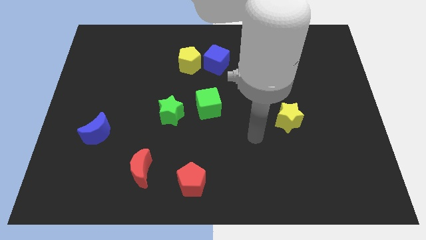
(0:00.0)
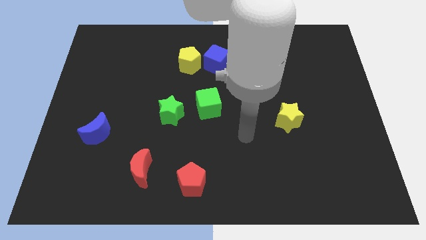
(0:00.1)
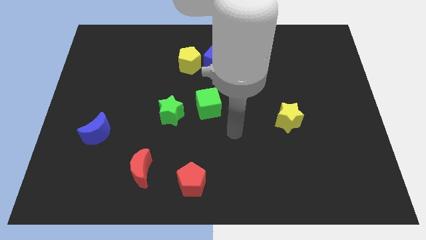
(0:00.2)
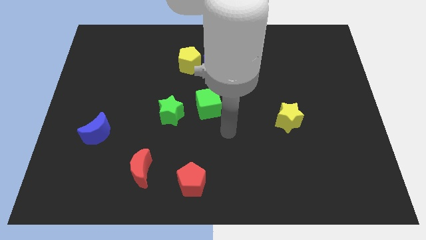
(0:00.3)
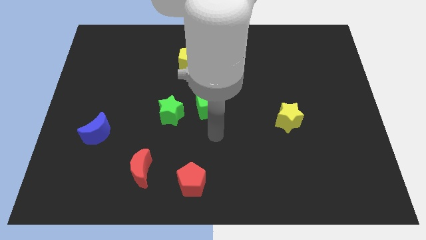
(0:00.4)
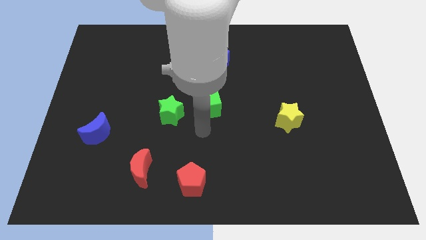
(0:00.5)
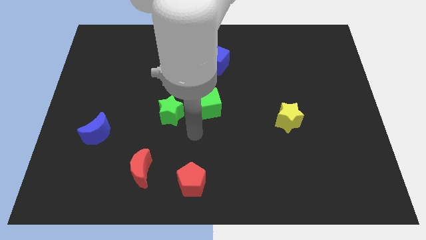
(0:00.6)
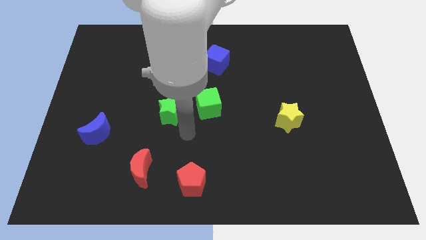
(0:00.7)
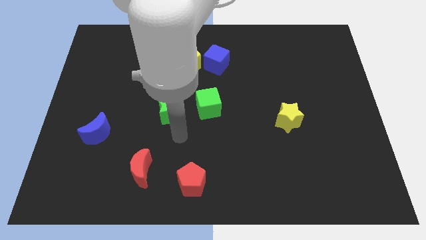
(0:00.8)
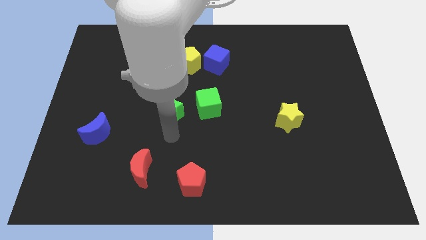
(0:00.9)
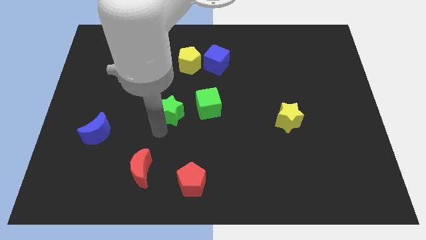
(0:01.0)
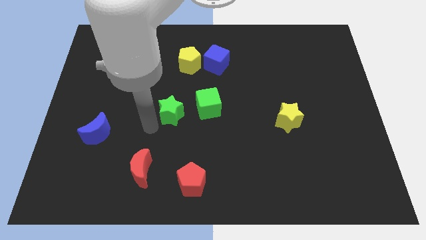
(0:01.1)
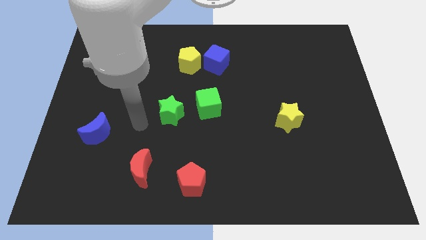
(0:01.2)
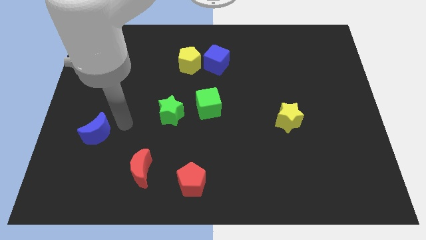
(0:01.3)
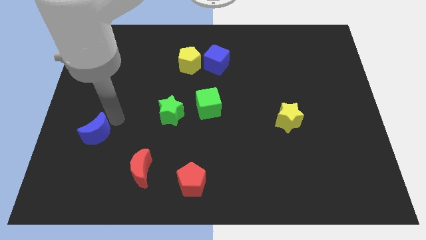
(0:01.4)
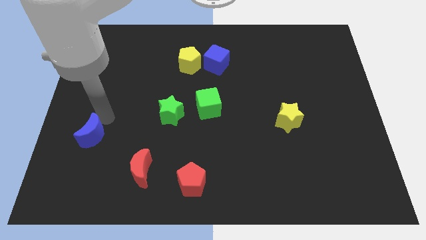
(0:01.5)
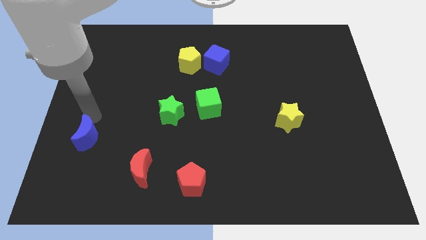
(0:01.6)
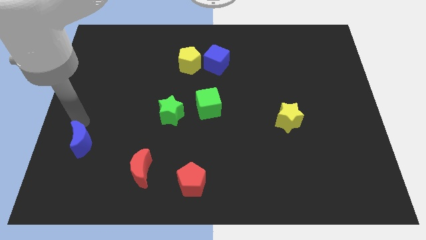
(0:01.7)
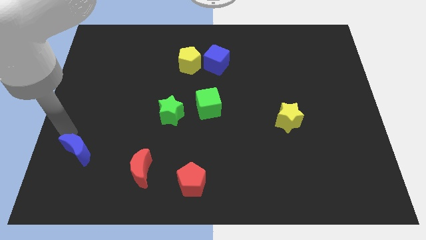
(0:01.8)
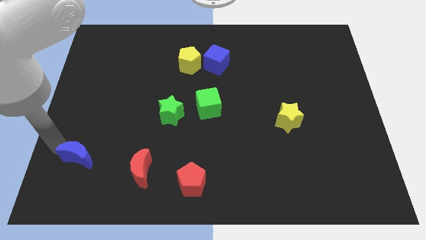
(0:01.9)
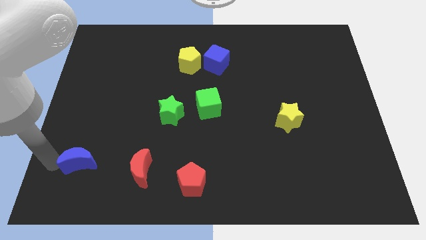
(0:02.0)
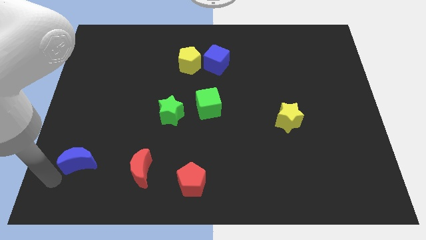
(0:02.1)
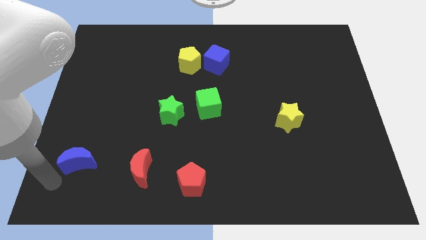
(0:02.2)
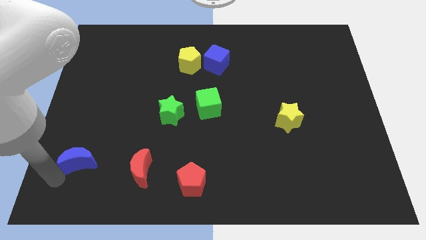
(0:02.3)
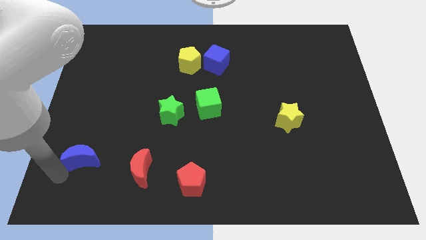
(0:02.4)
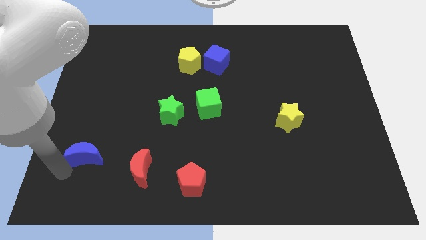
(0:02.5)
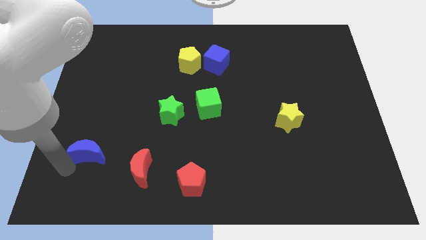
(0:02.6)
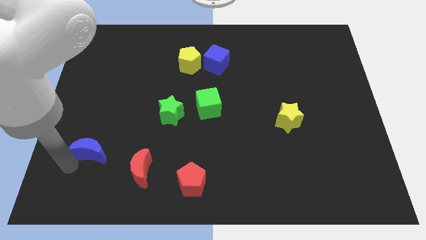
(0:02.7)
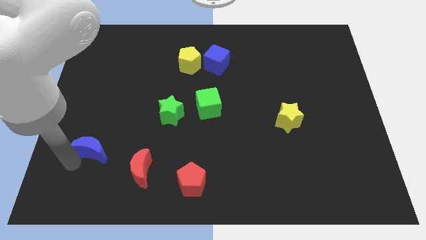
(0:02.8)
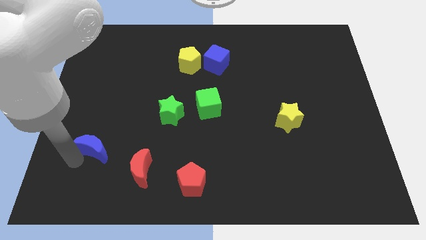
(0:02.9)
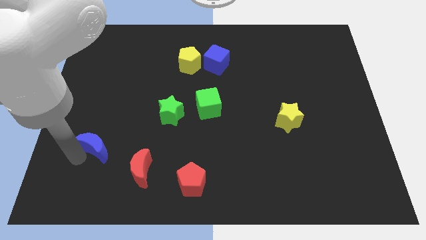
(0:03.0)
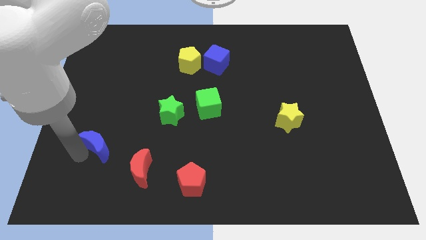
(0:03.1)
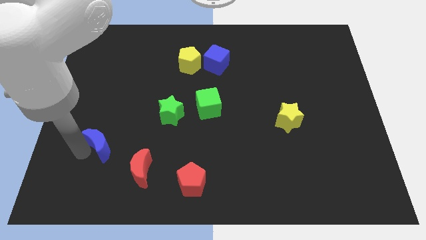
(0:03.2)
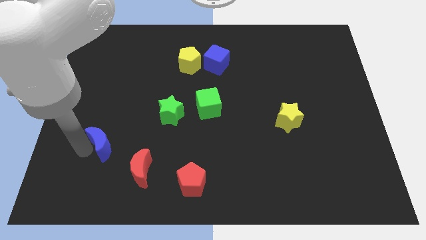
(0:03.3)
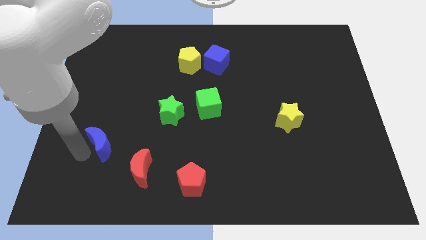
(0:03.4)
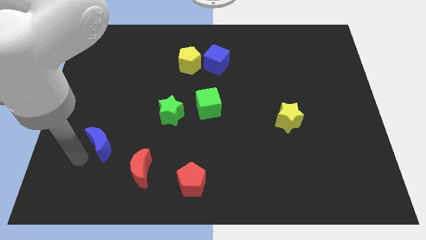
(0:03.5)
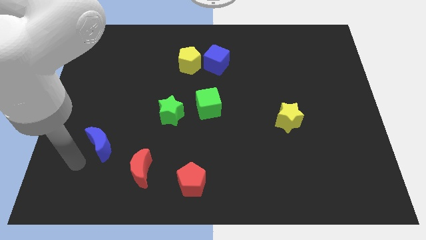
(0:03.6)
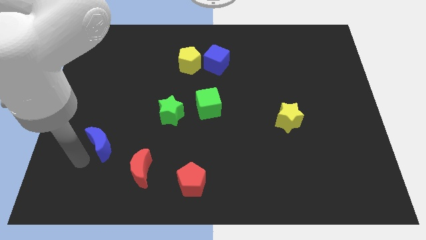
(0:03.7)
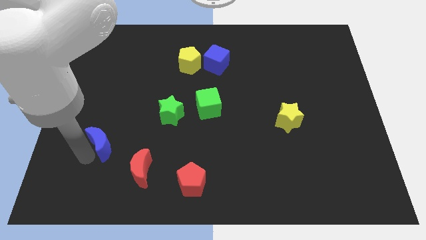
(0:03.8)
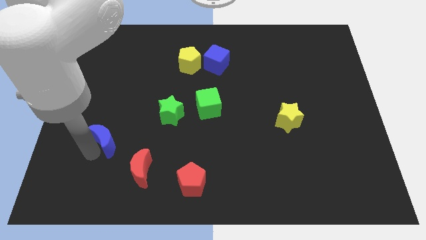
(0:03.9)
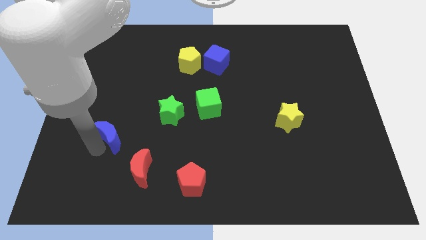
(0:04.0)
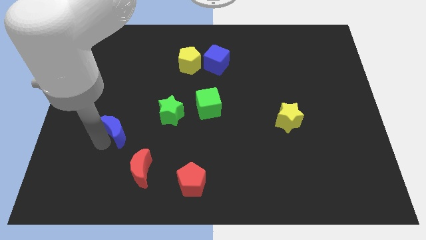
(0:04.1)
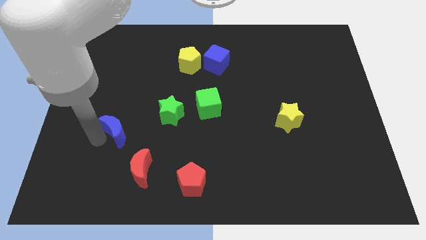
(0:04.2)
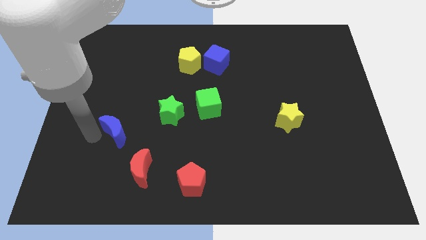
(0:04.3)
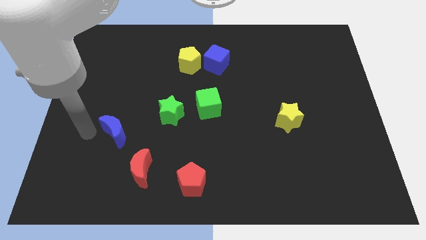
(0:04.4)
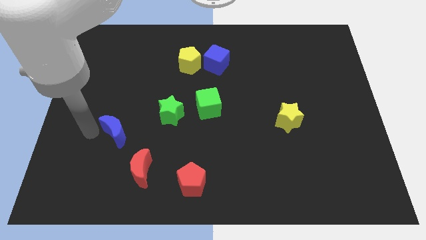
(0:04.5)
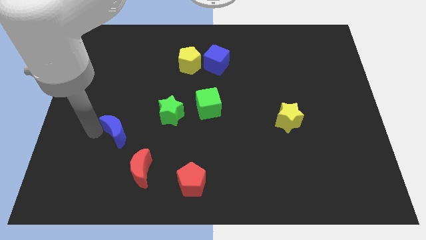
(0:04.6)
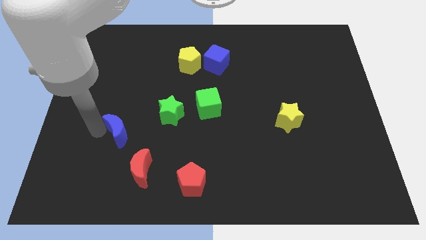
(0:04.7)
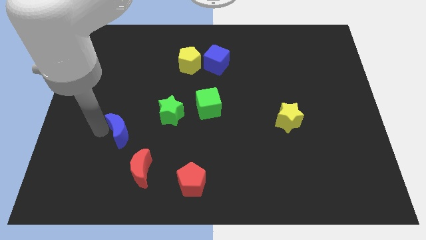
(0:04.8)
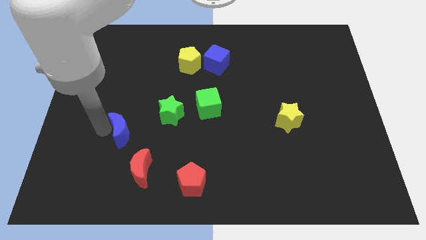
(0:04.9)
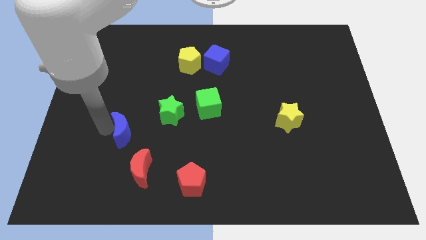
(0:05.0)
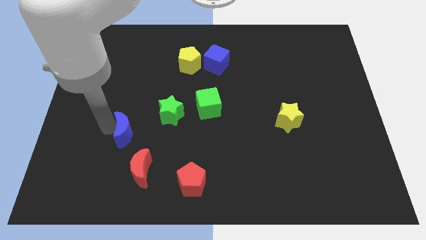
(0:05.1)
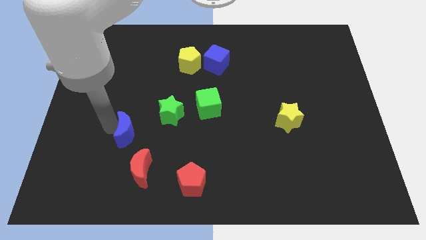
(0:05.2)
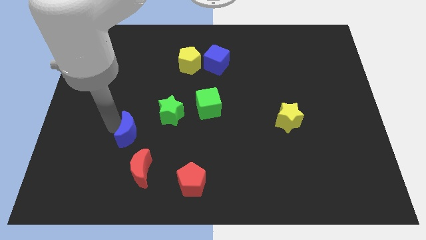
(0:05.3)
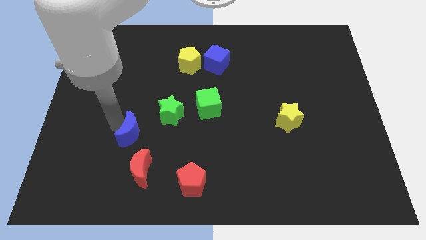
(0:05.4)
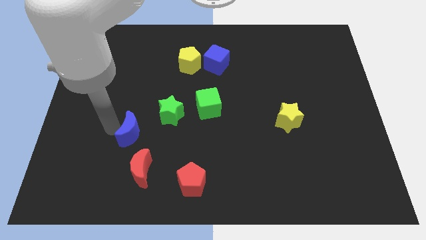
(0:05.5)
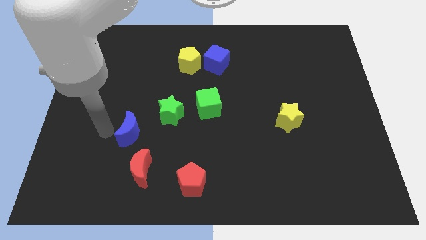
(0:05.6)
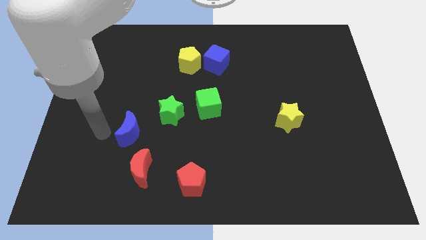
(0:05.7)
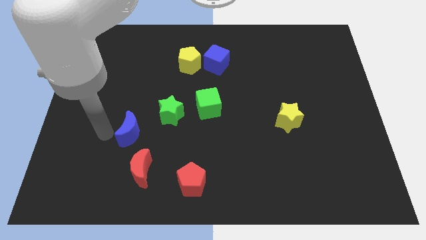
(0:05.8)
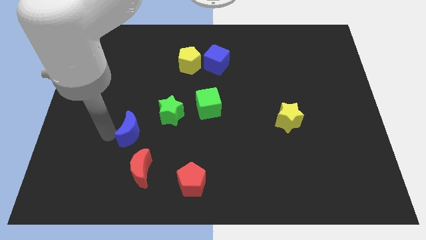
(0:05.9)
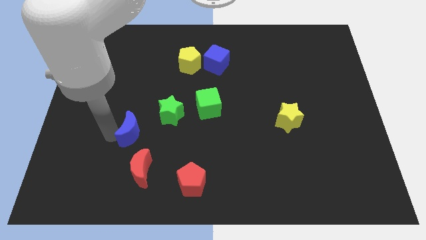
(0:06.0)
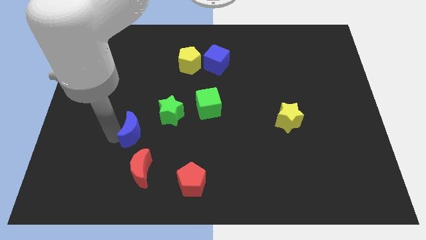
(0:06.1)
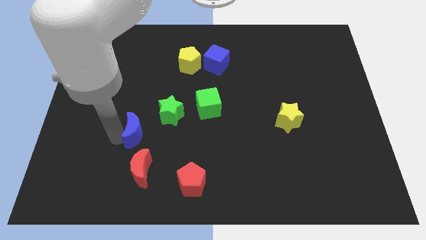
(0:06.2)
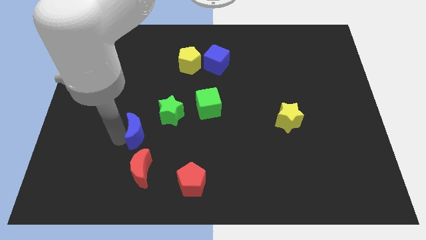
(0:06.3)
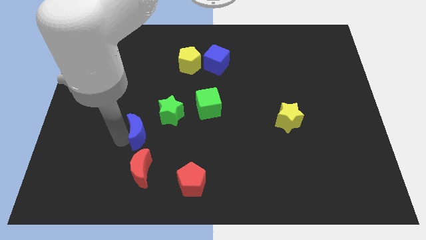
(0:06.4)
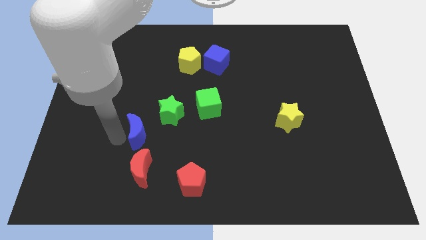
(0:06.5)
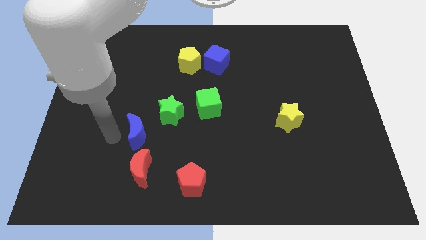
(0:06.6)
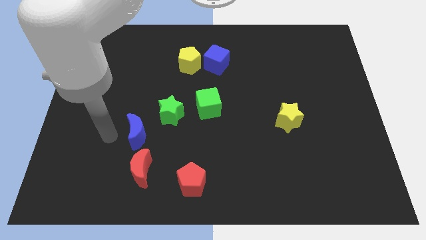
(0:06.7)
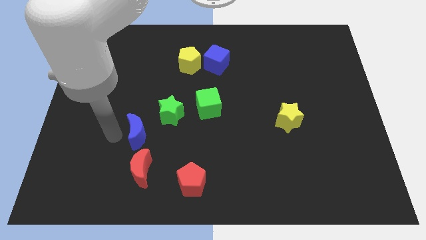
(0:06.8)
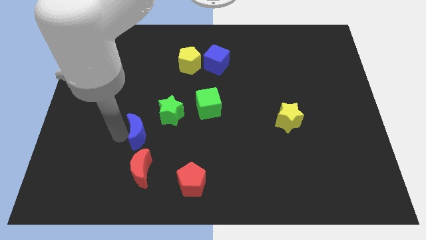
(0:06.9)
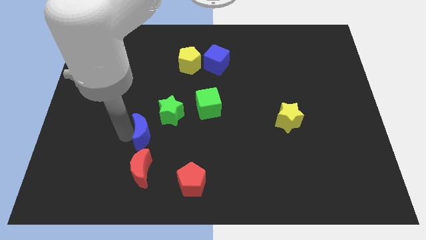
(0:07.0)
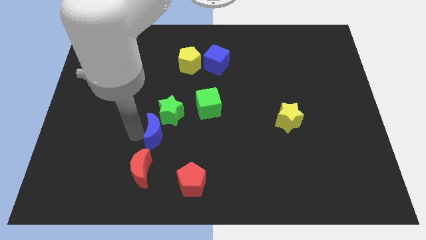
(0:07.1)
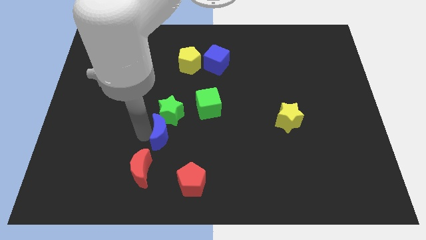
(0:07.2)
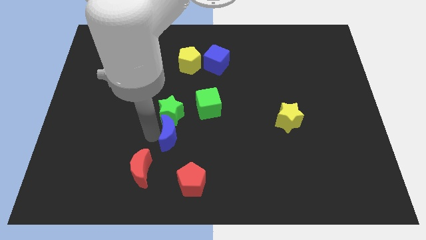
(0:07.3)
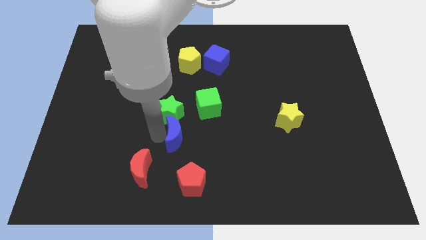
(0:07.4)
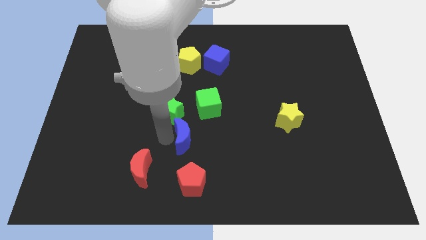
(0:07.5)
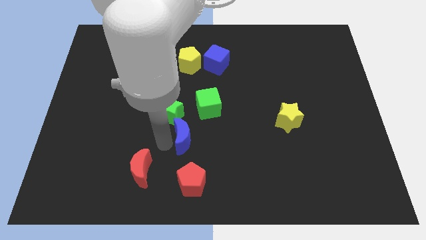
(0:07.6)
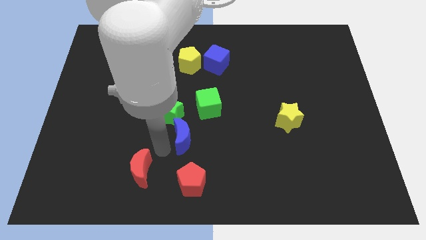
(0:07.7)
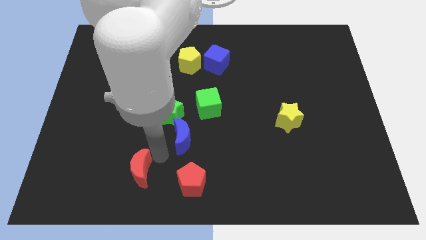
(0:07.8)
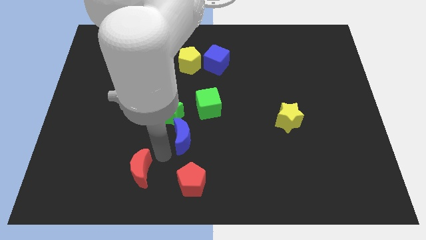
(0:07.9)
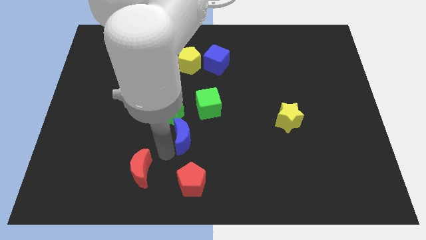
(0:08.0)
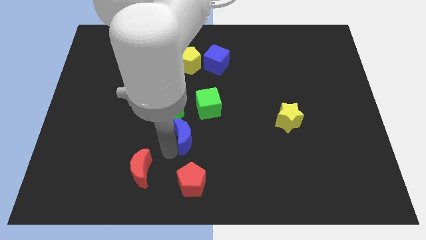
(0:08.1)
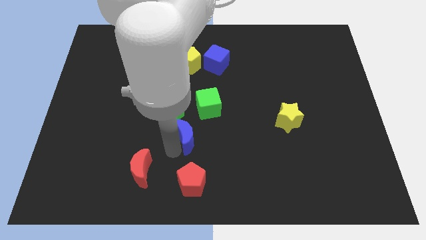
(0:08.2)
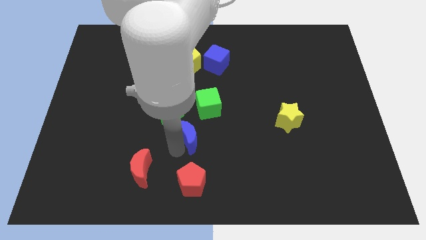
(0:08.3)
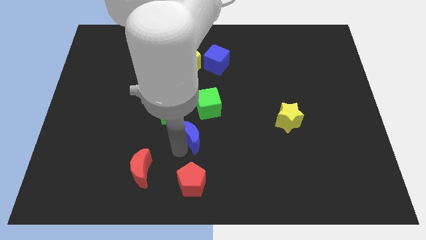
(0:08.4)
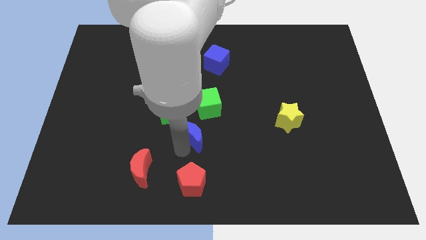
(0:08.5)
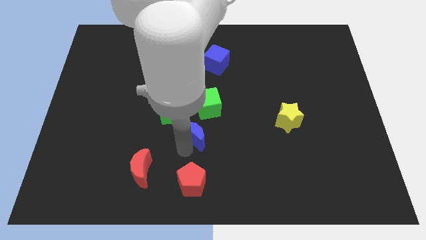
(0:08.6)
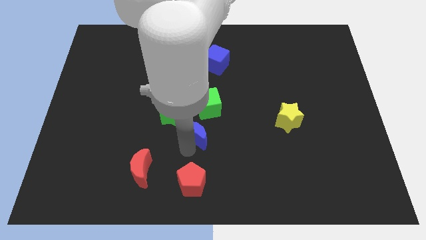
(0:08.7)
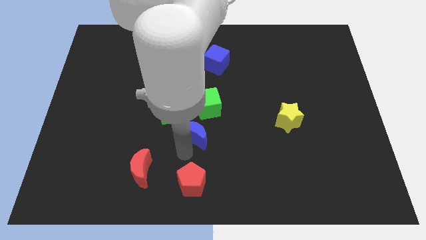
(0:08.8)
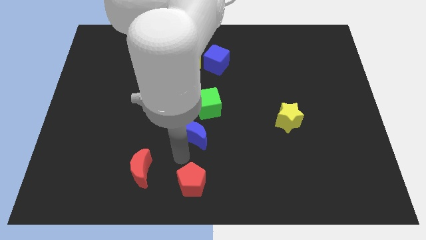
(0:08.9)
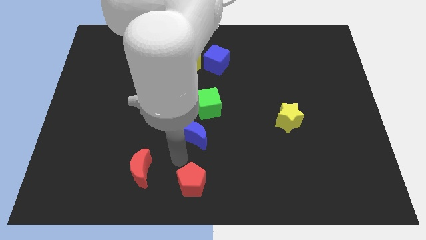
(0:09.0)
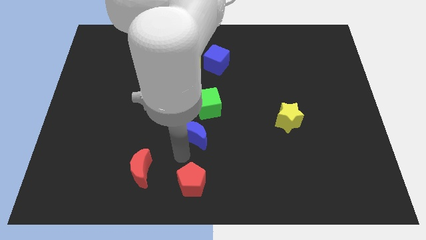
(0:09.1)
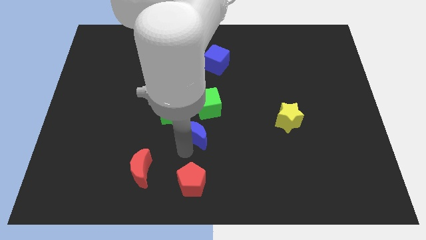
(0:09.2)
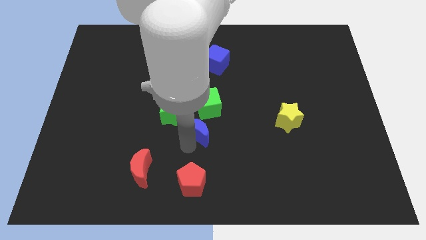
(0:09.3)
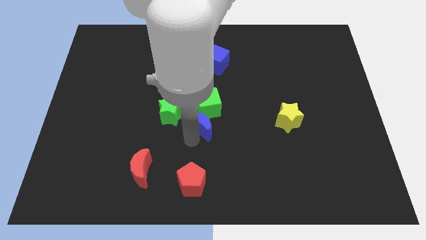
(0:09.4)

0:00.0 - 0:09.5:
put the blue moon just right of the green star
